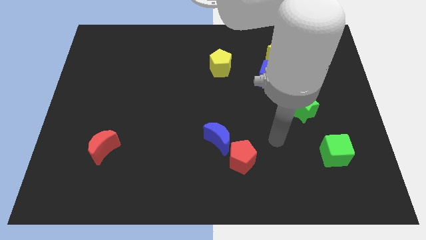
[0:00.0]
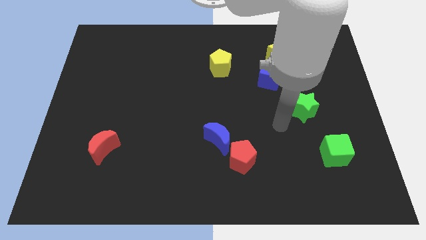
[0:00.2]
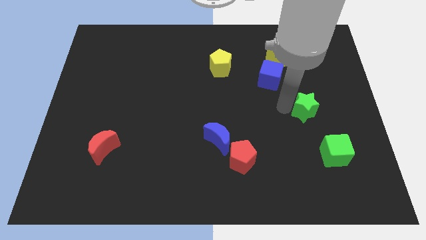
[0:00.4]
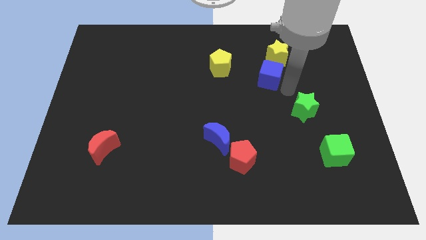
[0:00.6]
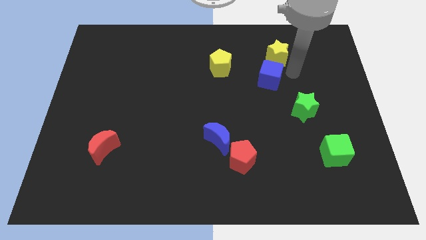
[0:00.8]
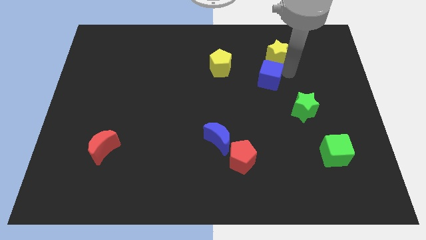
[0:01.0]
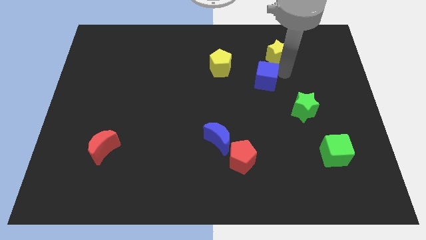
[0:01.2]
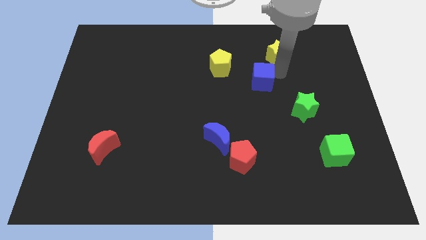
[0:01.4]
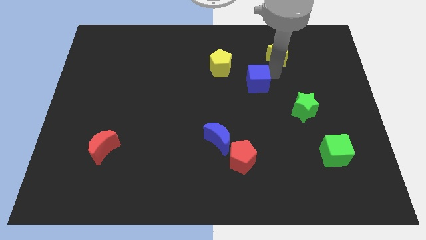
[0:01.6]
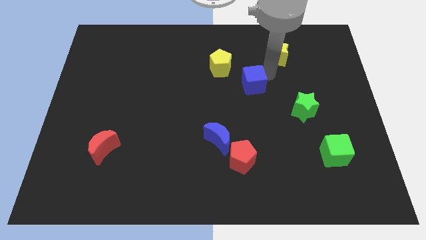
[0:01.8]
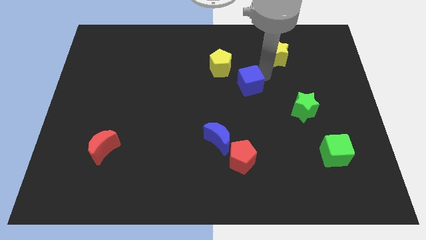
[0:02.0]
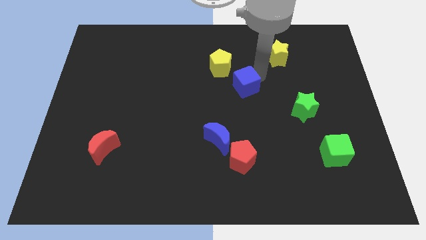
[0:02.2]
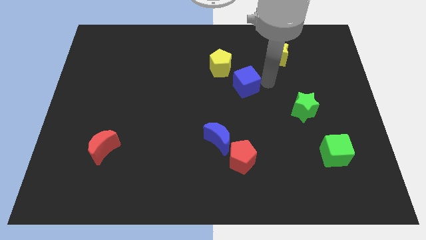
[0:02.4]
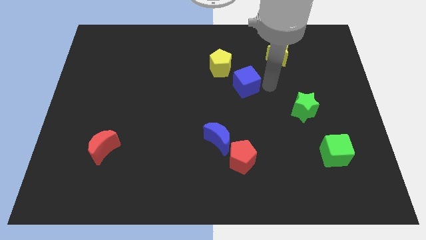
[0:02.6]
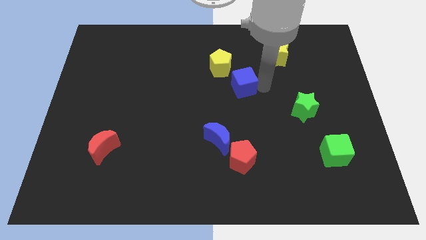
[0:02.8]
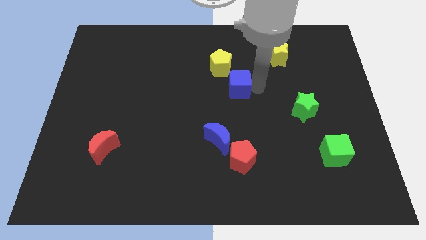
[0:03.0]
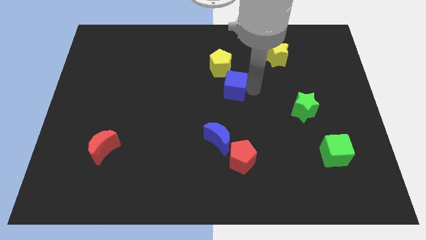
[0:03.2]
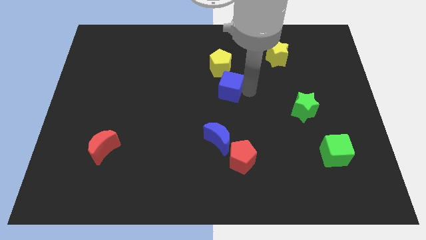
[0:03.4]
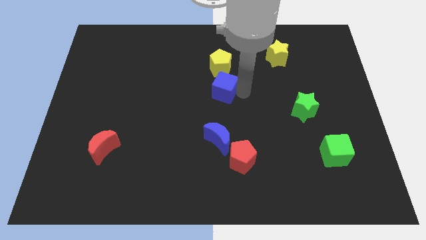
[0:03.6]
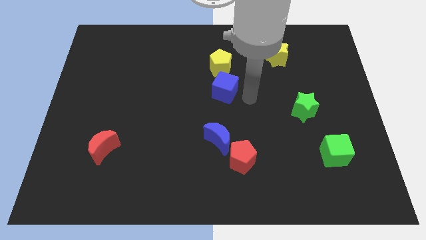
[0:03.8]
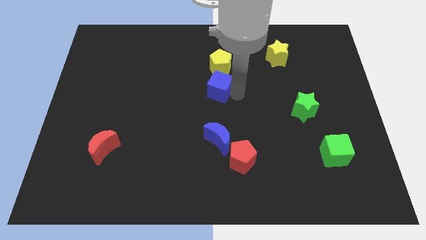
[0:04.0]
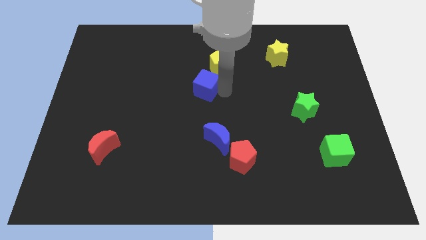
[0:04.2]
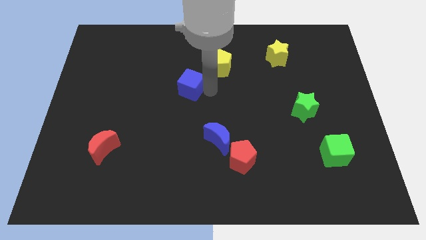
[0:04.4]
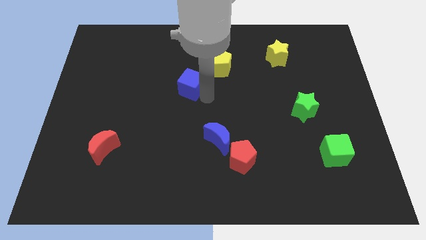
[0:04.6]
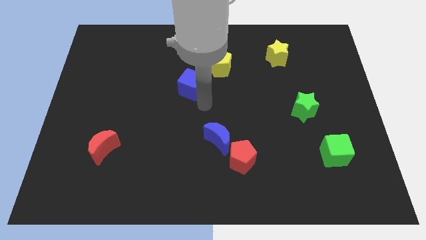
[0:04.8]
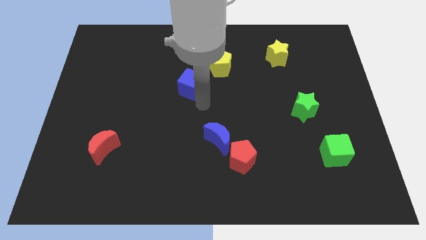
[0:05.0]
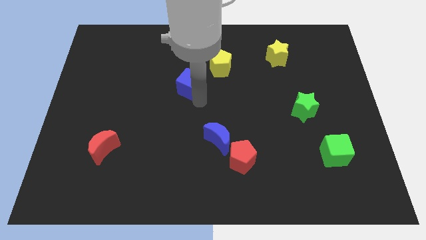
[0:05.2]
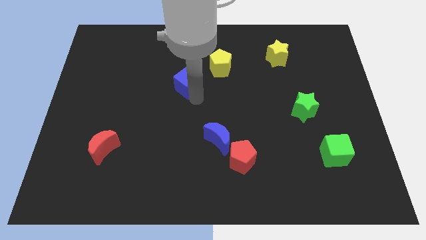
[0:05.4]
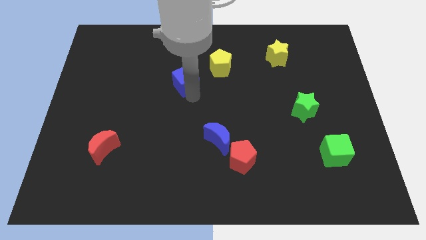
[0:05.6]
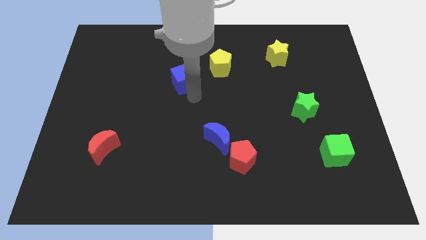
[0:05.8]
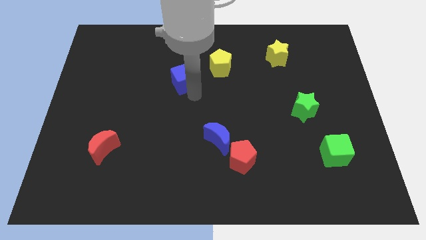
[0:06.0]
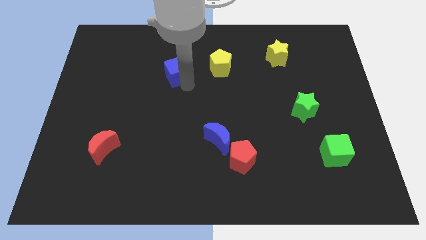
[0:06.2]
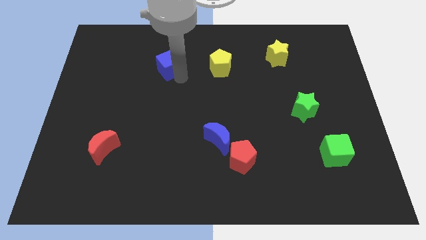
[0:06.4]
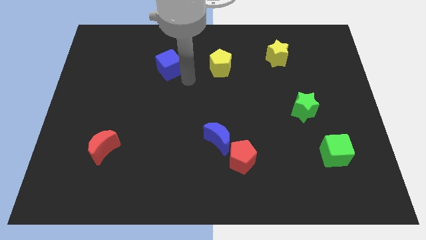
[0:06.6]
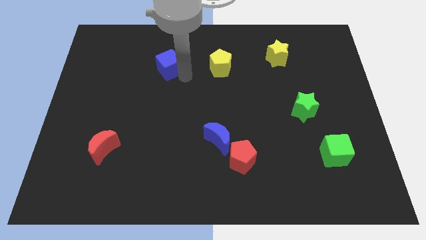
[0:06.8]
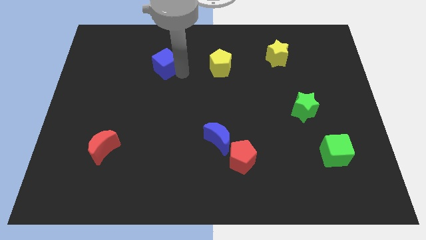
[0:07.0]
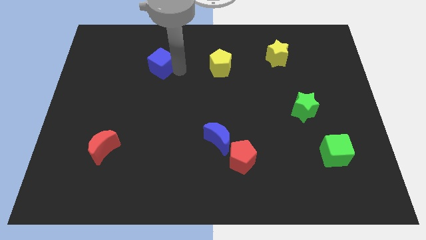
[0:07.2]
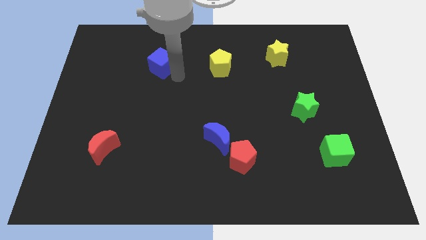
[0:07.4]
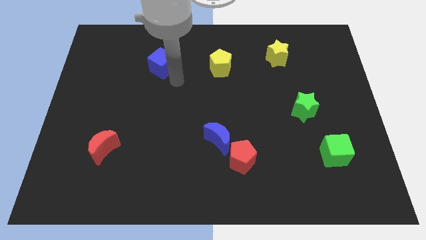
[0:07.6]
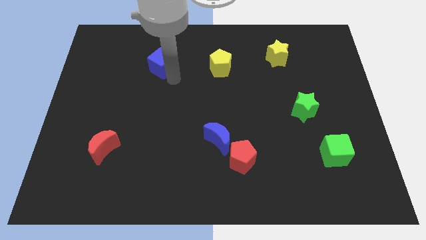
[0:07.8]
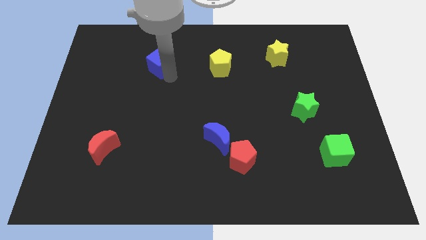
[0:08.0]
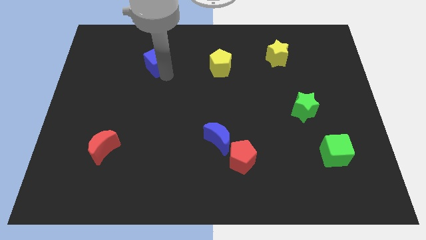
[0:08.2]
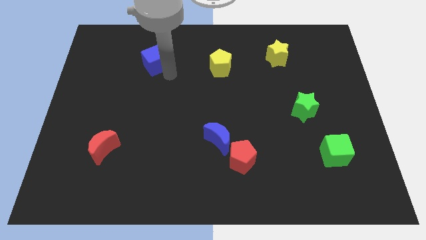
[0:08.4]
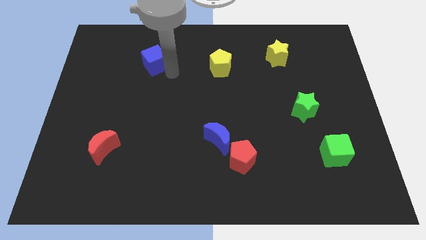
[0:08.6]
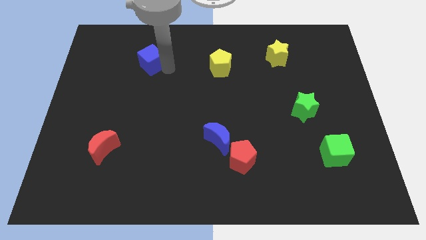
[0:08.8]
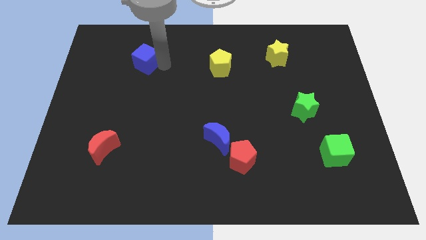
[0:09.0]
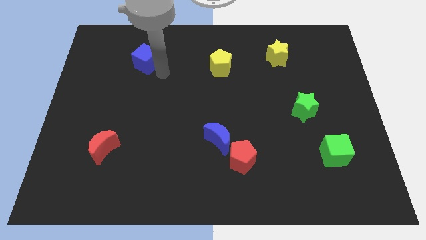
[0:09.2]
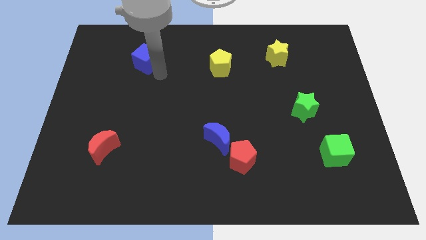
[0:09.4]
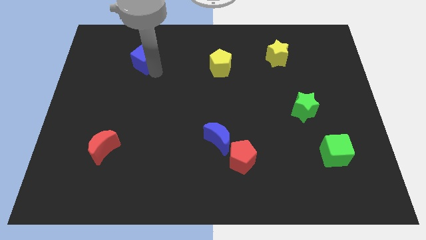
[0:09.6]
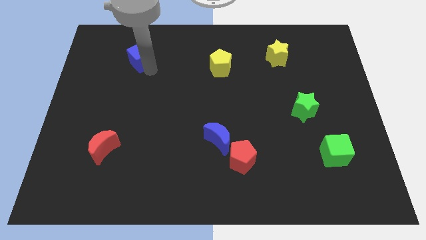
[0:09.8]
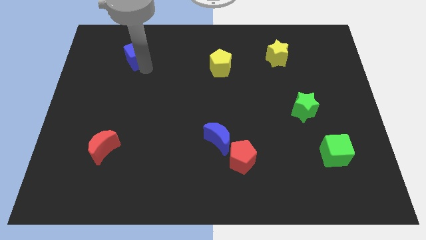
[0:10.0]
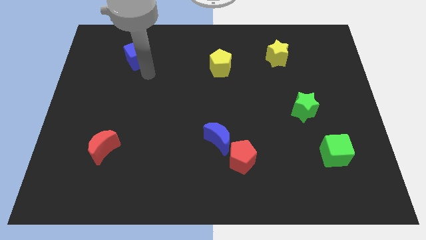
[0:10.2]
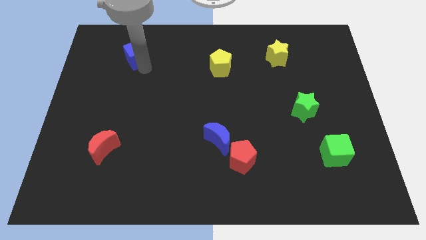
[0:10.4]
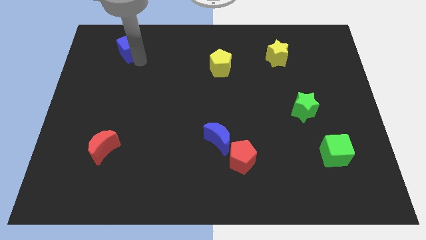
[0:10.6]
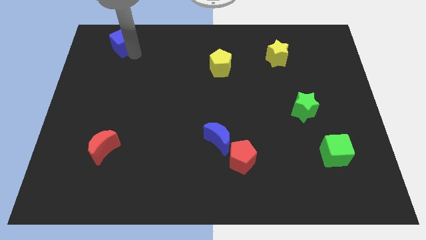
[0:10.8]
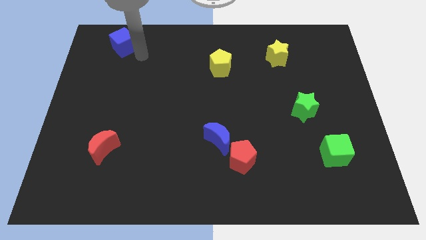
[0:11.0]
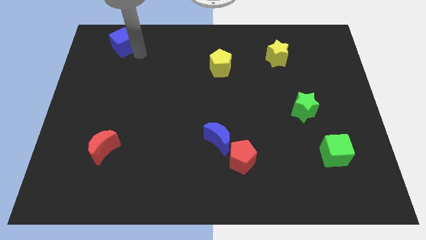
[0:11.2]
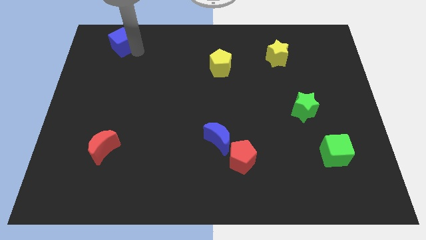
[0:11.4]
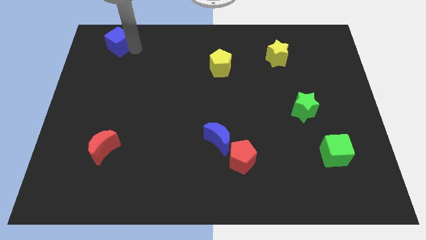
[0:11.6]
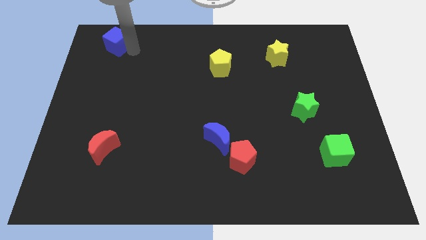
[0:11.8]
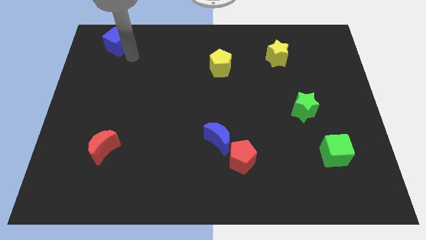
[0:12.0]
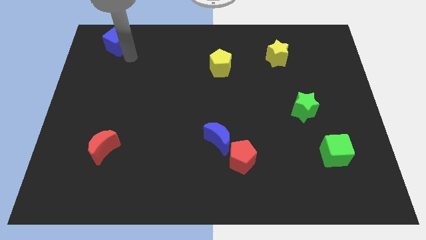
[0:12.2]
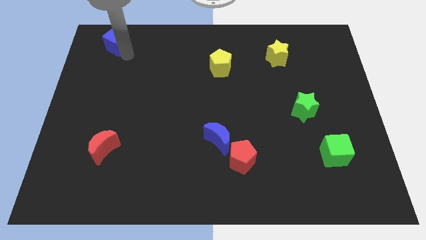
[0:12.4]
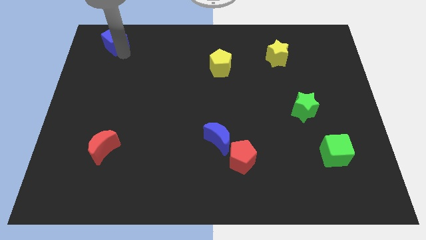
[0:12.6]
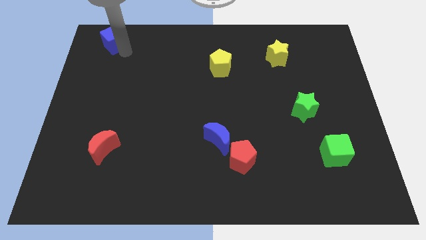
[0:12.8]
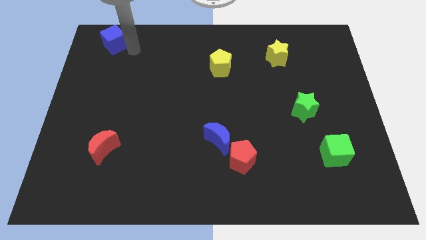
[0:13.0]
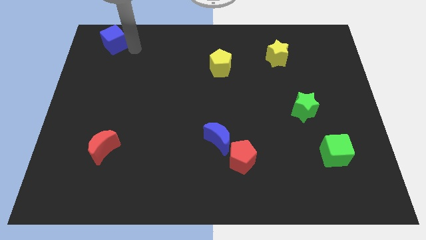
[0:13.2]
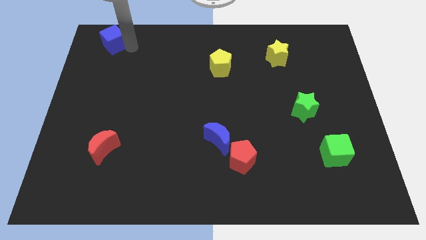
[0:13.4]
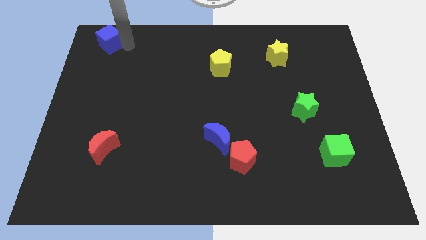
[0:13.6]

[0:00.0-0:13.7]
put the blue cube to the top left of the board
